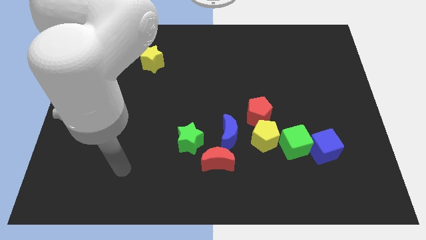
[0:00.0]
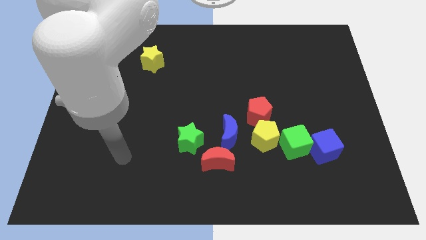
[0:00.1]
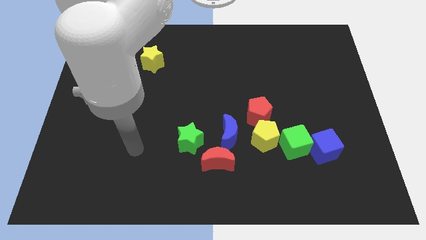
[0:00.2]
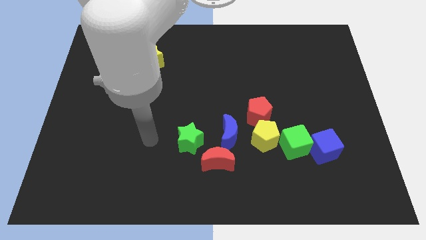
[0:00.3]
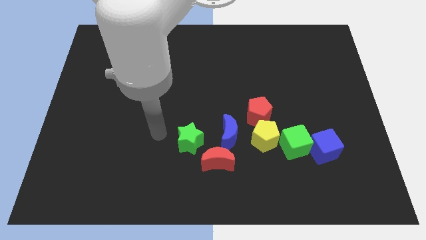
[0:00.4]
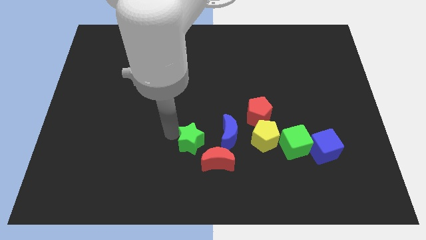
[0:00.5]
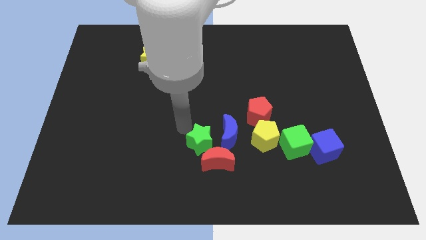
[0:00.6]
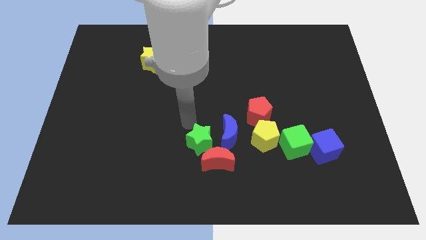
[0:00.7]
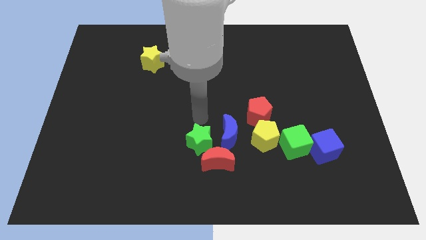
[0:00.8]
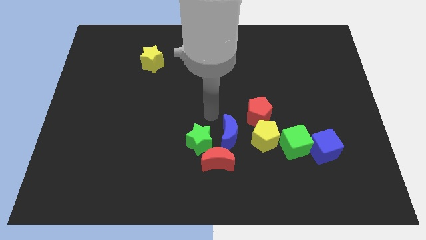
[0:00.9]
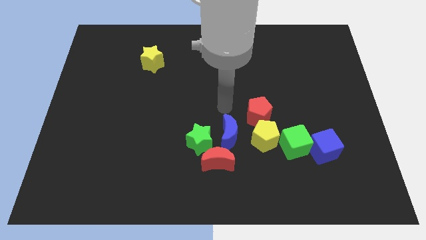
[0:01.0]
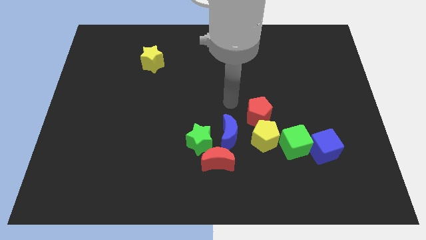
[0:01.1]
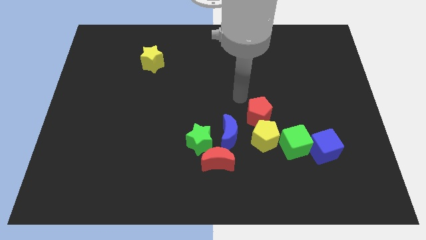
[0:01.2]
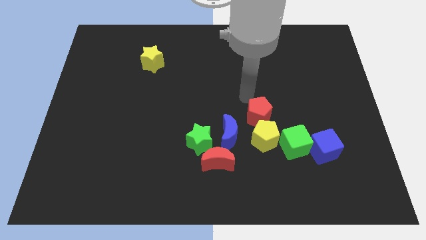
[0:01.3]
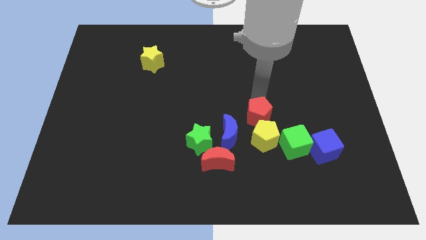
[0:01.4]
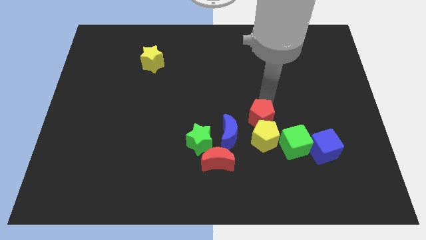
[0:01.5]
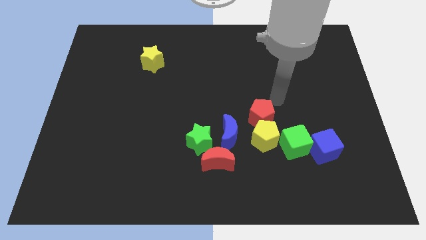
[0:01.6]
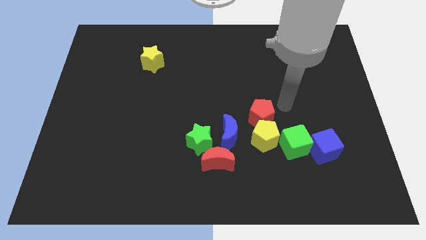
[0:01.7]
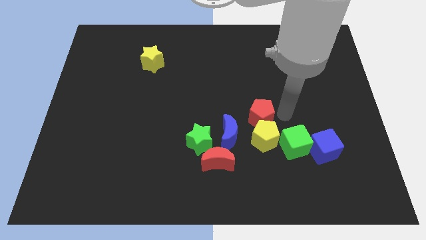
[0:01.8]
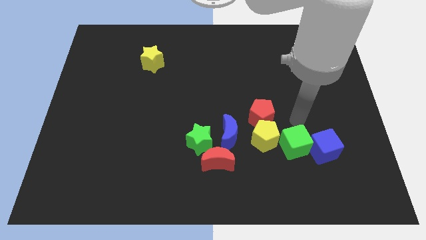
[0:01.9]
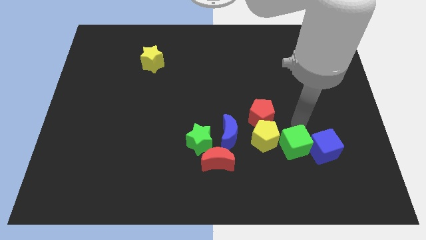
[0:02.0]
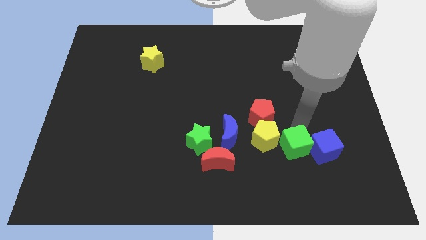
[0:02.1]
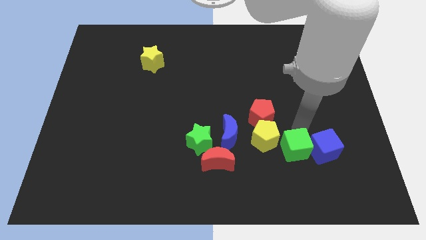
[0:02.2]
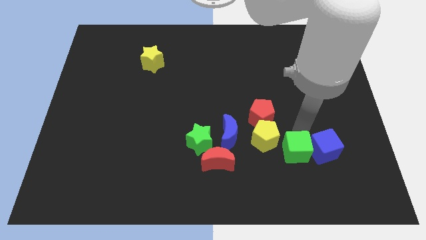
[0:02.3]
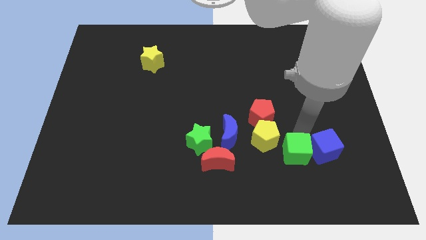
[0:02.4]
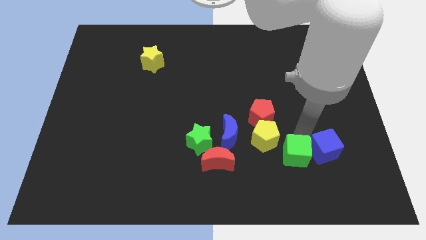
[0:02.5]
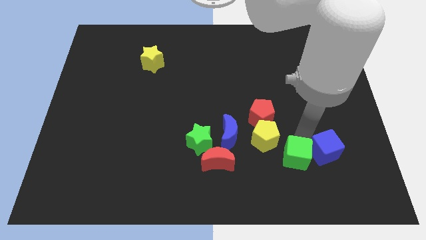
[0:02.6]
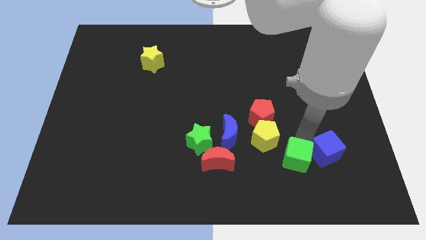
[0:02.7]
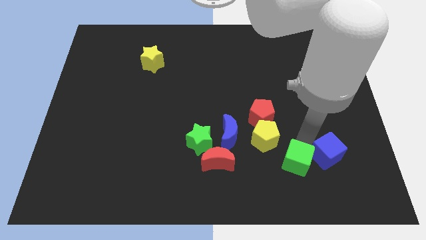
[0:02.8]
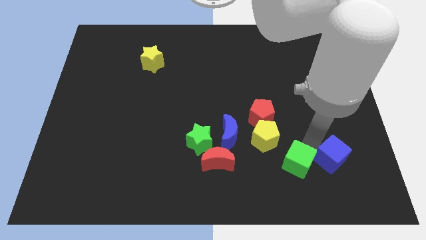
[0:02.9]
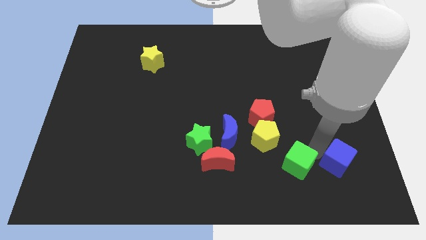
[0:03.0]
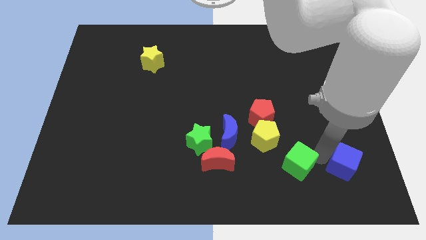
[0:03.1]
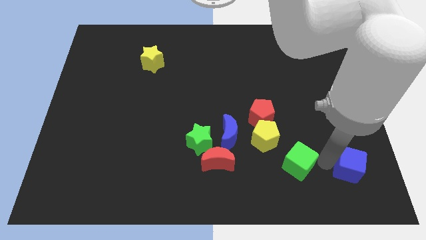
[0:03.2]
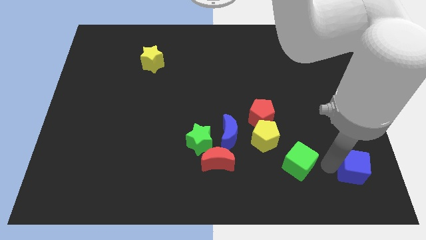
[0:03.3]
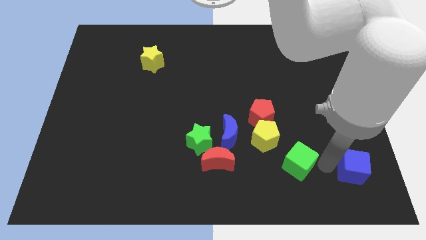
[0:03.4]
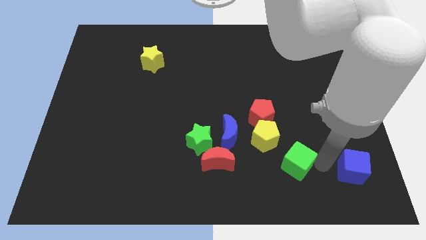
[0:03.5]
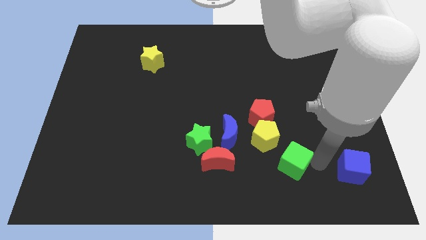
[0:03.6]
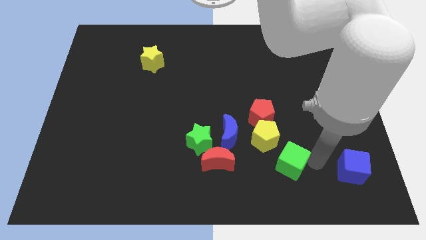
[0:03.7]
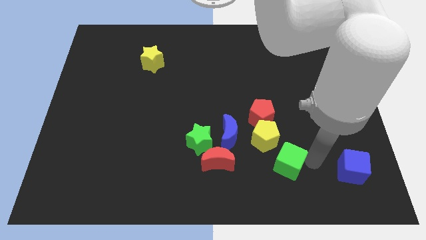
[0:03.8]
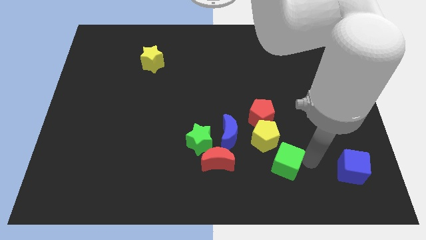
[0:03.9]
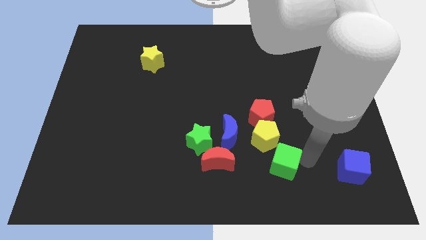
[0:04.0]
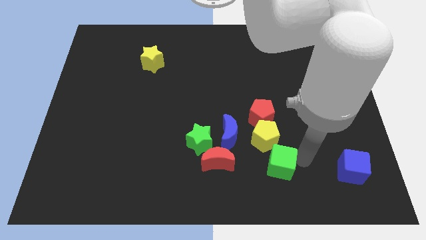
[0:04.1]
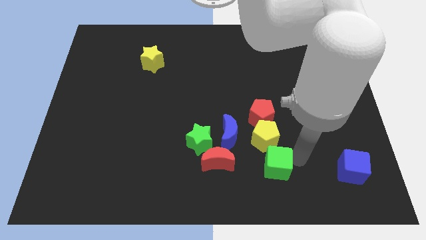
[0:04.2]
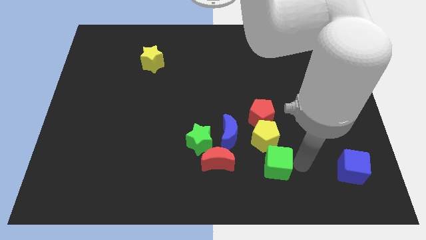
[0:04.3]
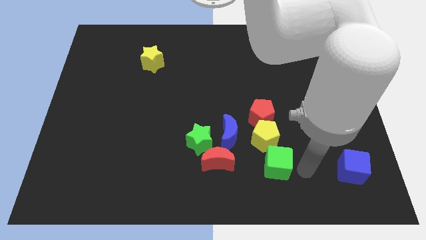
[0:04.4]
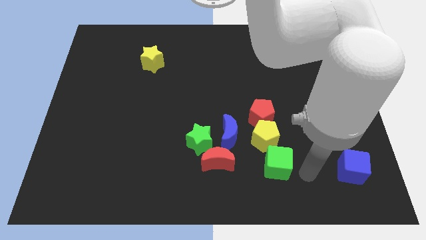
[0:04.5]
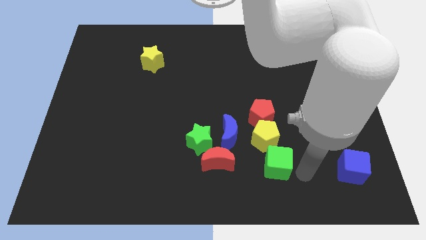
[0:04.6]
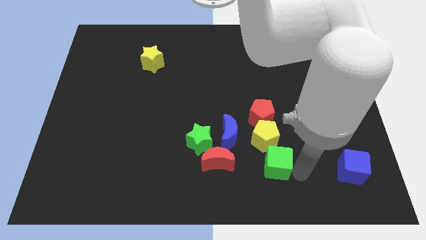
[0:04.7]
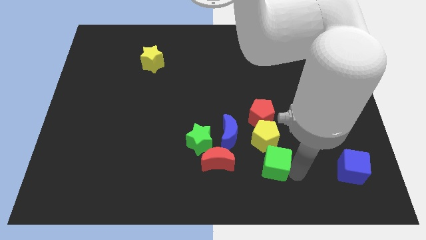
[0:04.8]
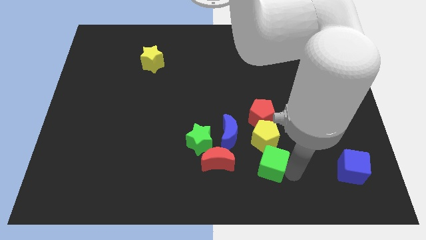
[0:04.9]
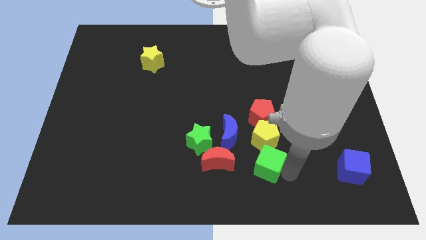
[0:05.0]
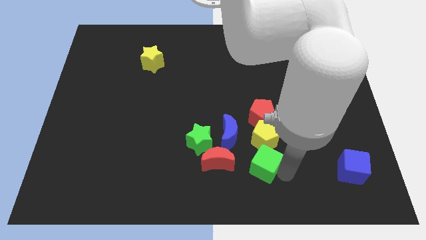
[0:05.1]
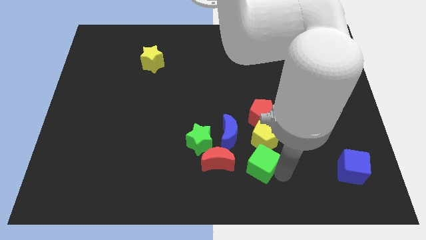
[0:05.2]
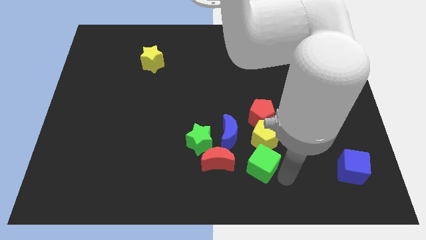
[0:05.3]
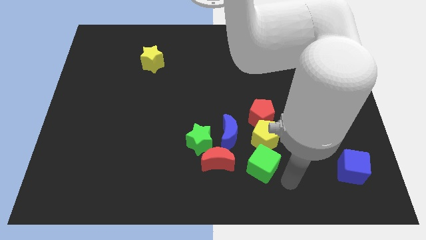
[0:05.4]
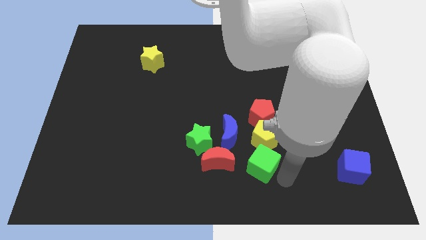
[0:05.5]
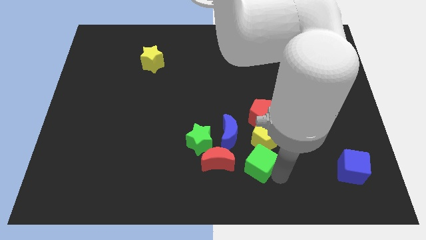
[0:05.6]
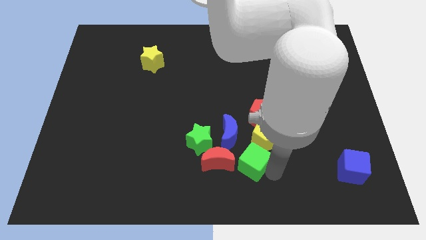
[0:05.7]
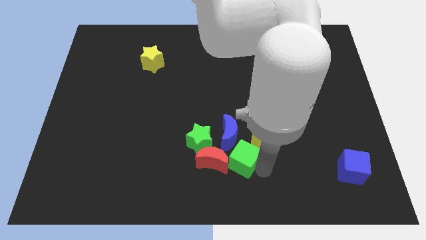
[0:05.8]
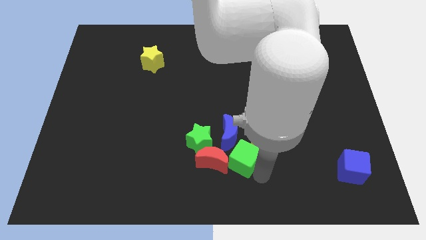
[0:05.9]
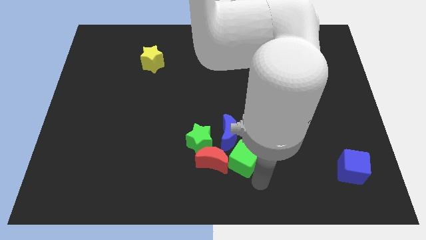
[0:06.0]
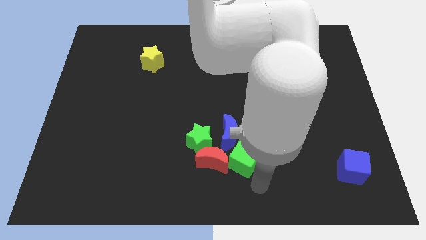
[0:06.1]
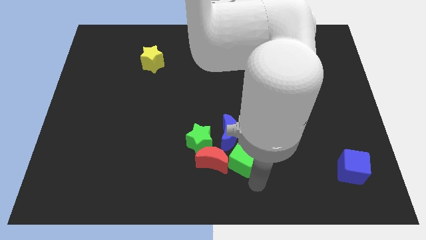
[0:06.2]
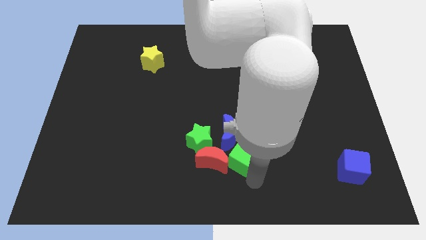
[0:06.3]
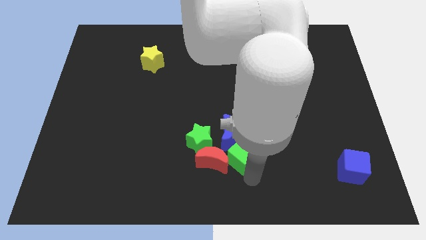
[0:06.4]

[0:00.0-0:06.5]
slide the green cube to the blue moon

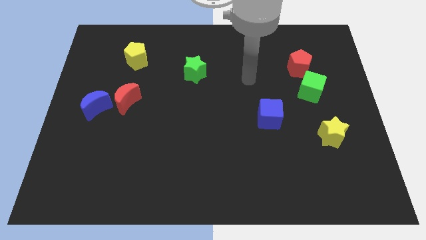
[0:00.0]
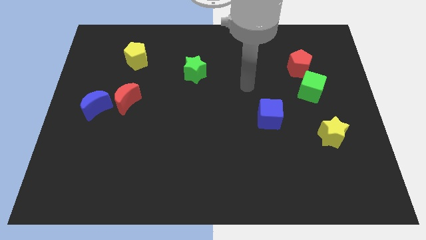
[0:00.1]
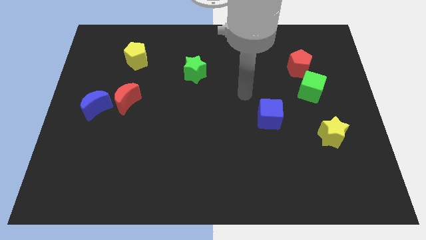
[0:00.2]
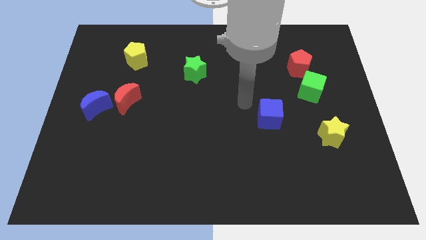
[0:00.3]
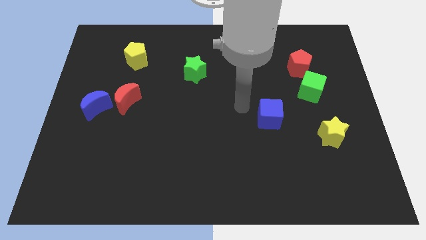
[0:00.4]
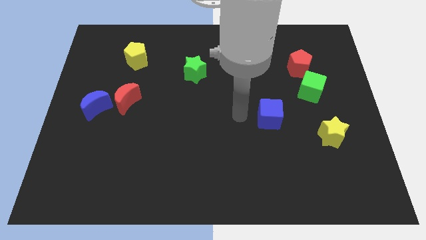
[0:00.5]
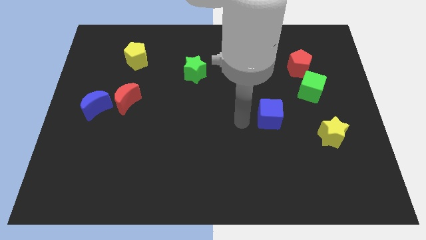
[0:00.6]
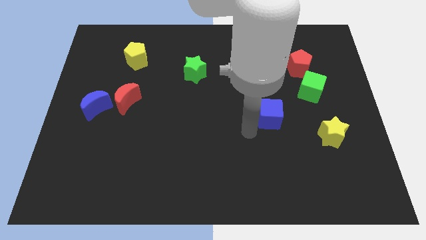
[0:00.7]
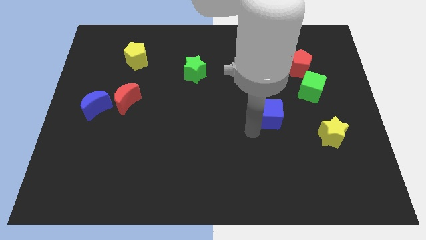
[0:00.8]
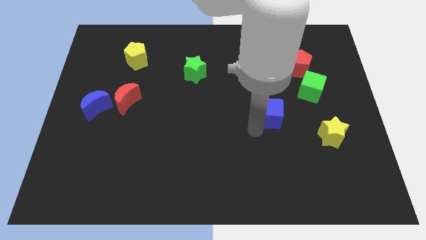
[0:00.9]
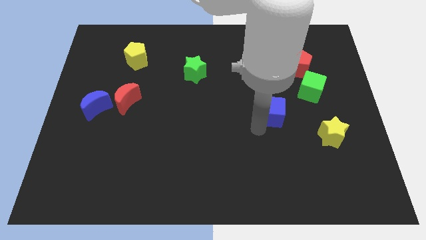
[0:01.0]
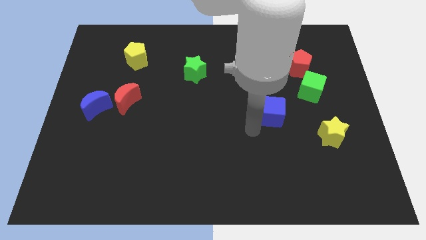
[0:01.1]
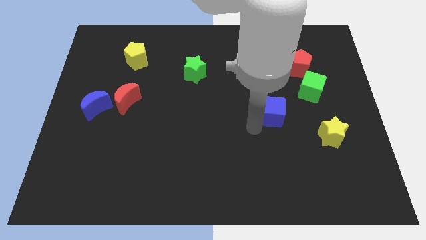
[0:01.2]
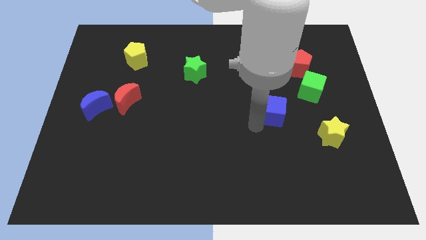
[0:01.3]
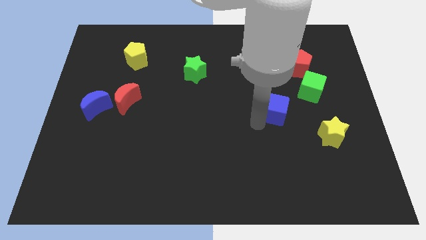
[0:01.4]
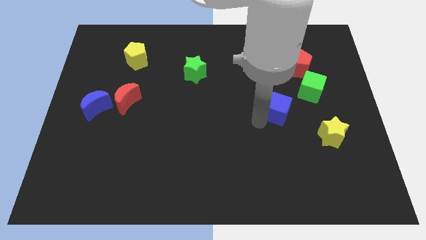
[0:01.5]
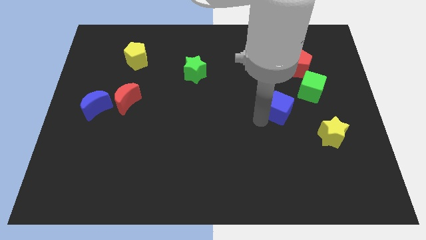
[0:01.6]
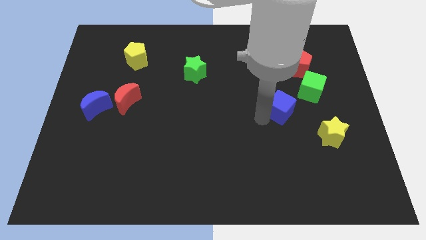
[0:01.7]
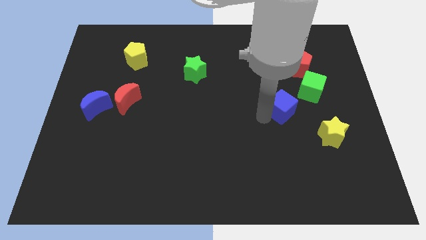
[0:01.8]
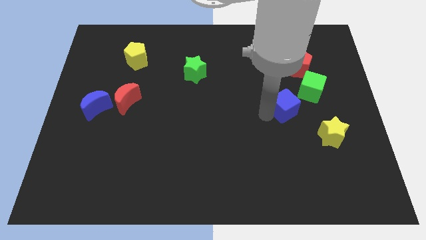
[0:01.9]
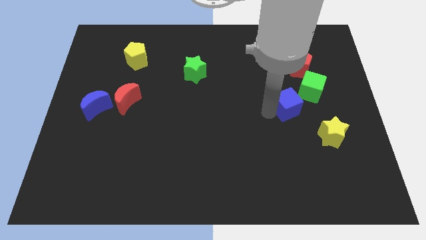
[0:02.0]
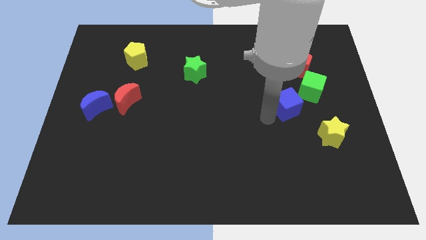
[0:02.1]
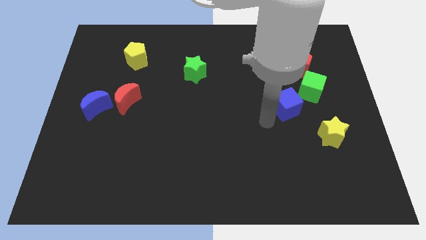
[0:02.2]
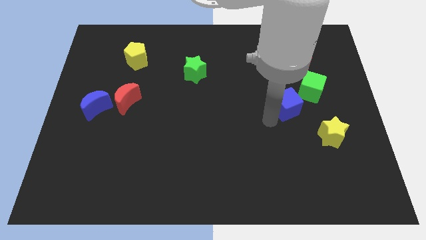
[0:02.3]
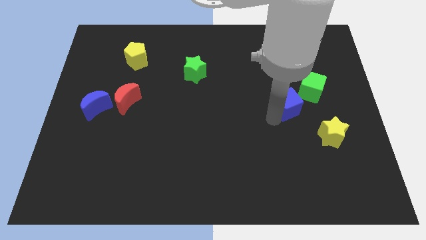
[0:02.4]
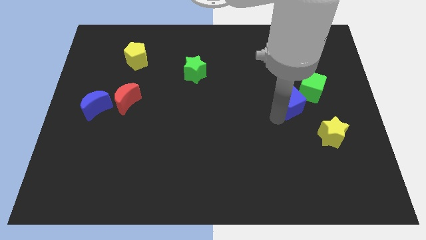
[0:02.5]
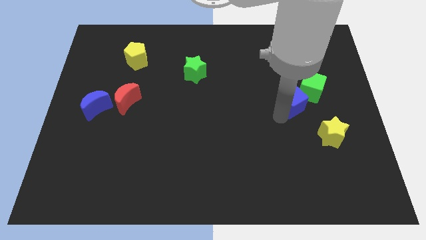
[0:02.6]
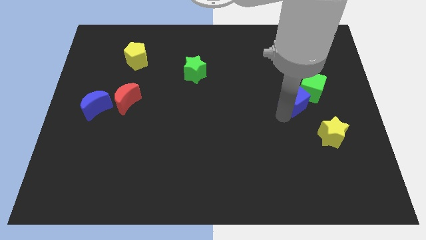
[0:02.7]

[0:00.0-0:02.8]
move the blue cube towards the green cube
